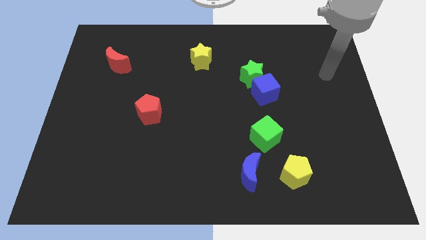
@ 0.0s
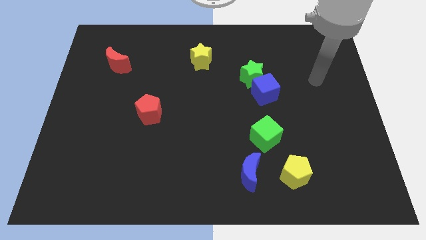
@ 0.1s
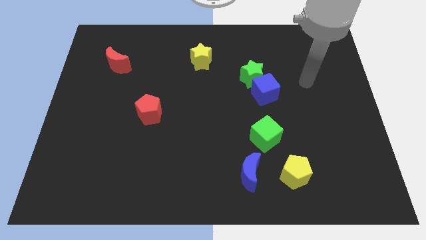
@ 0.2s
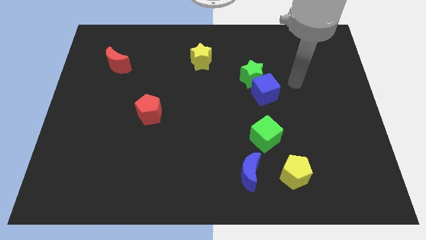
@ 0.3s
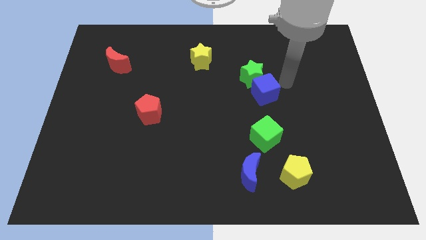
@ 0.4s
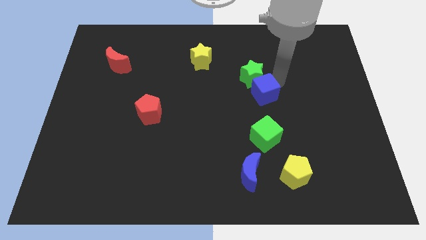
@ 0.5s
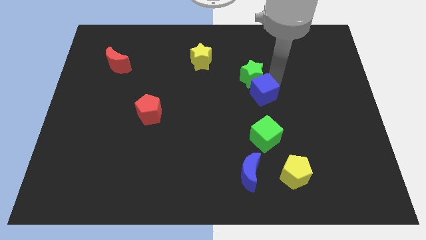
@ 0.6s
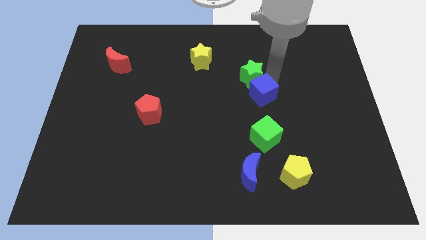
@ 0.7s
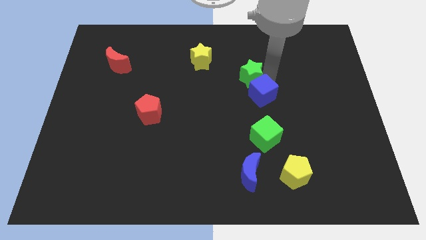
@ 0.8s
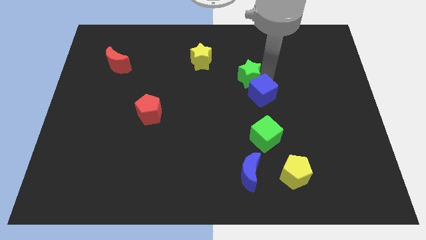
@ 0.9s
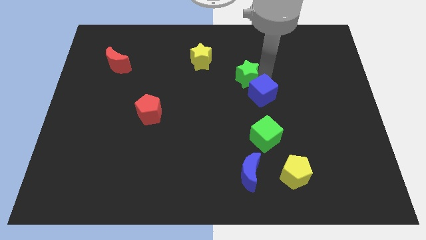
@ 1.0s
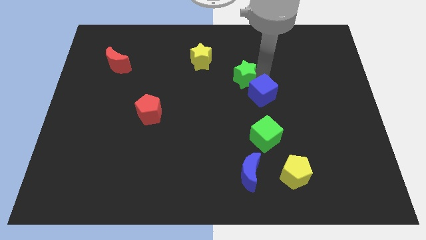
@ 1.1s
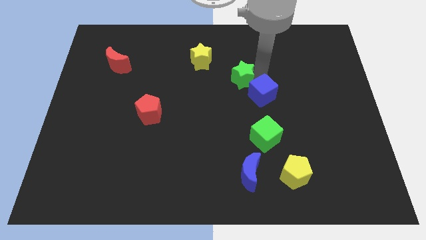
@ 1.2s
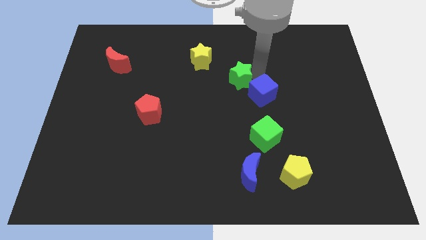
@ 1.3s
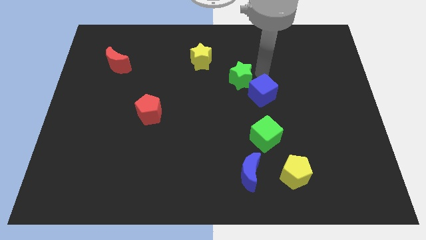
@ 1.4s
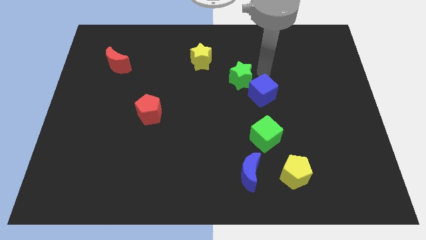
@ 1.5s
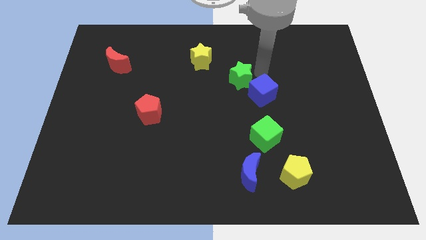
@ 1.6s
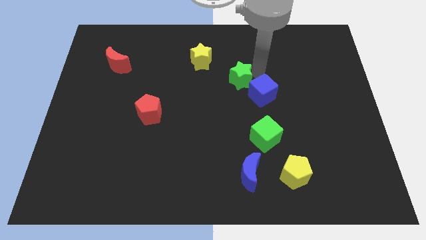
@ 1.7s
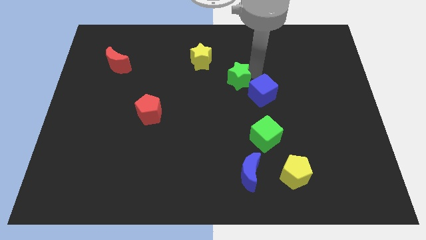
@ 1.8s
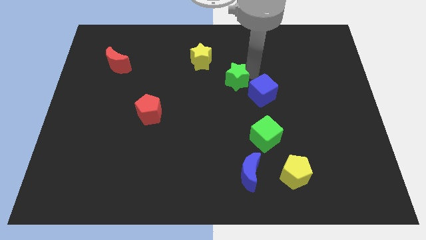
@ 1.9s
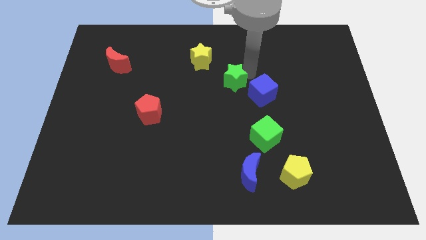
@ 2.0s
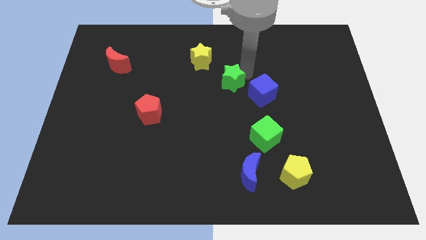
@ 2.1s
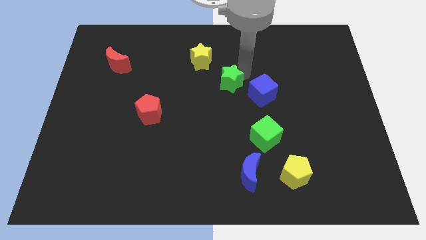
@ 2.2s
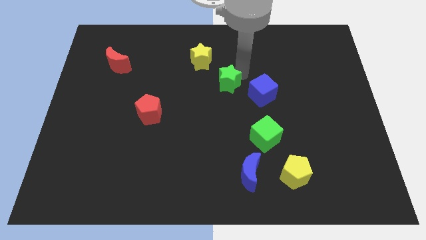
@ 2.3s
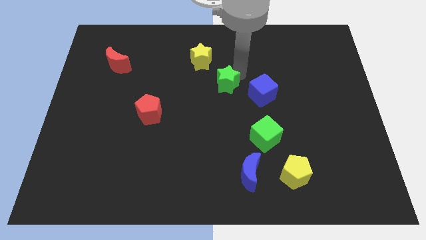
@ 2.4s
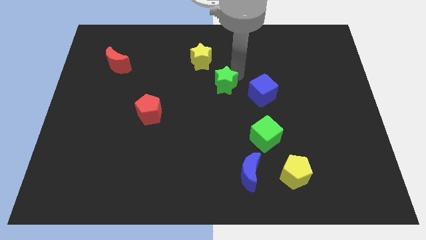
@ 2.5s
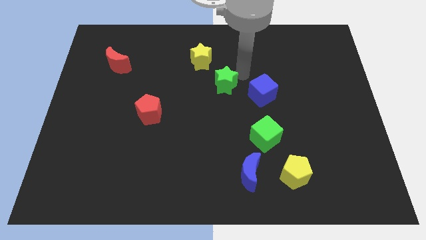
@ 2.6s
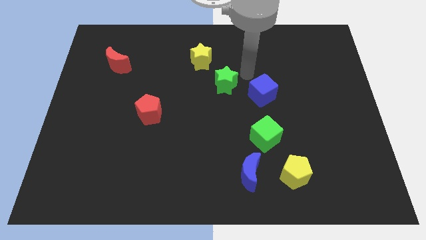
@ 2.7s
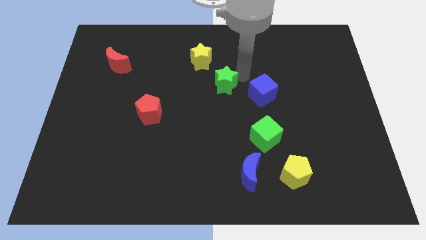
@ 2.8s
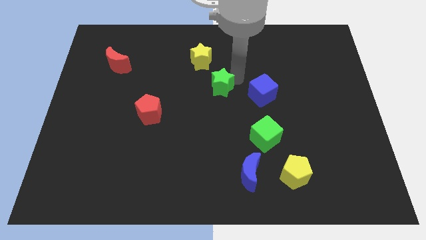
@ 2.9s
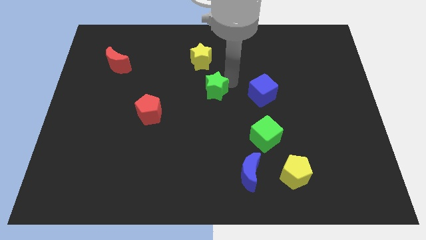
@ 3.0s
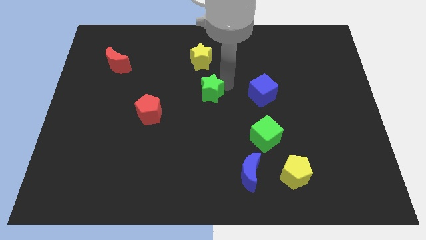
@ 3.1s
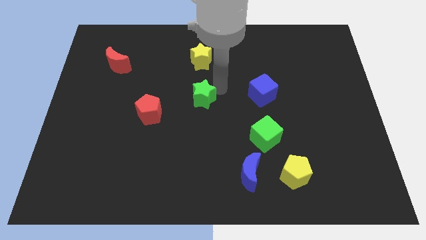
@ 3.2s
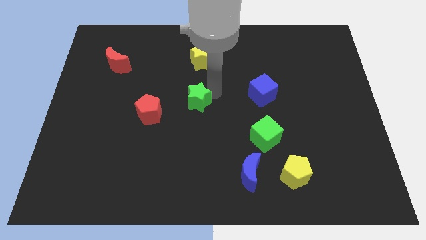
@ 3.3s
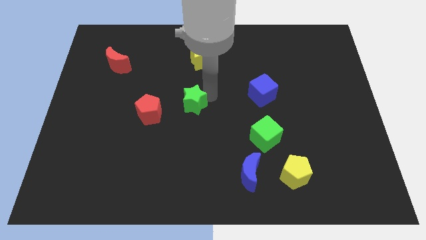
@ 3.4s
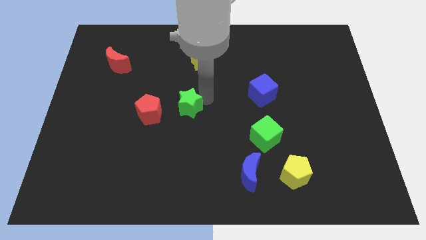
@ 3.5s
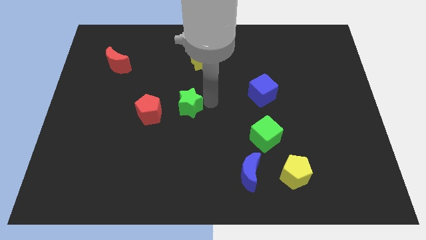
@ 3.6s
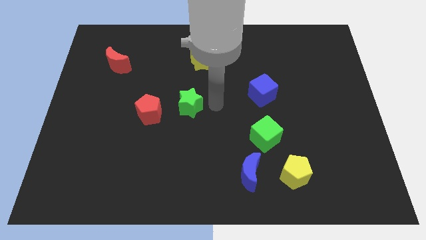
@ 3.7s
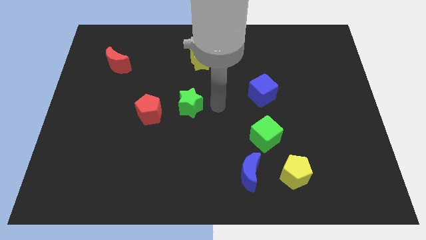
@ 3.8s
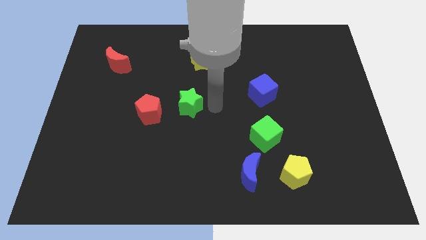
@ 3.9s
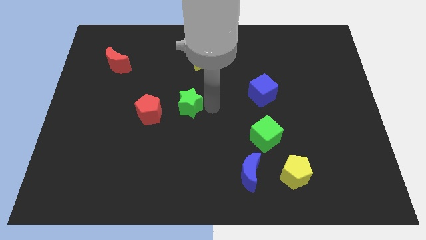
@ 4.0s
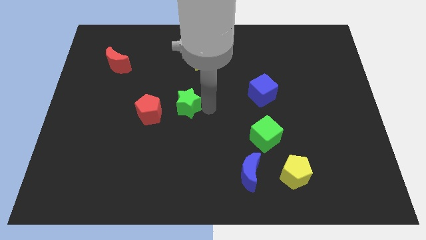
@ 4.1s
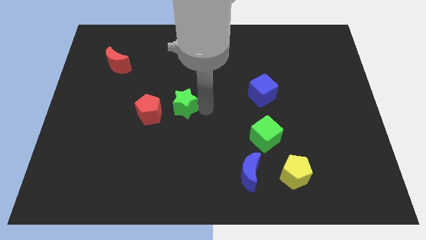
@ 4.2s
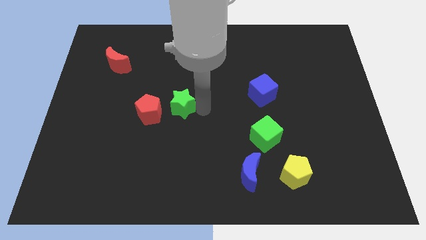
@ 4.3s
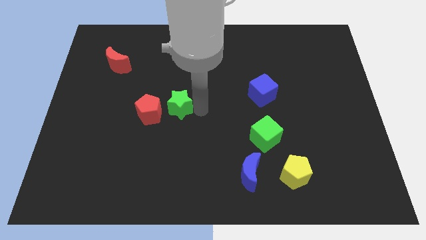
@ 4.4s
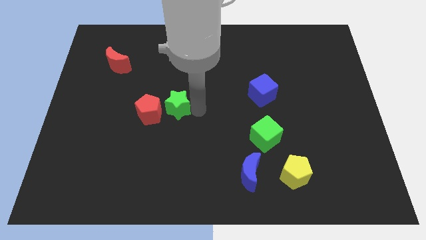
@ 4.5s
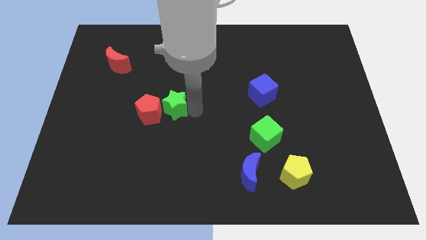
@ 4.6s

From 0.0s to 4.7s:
push the green star close to the red pentagon

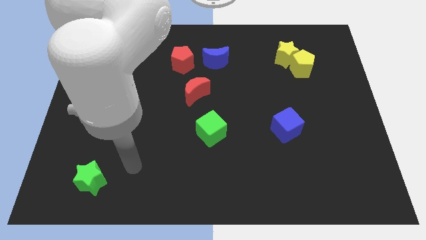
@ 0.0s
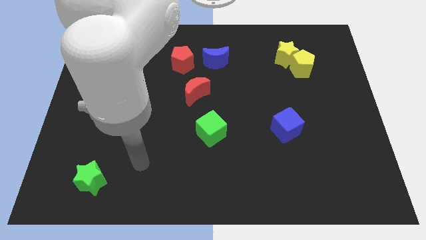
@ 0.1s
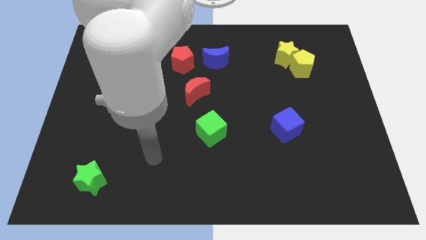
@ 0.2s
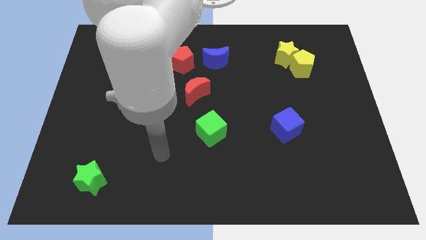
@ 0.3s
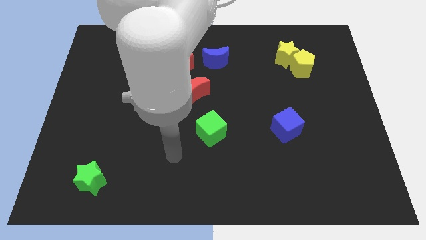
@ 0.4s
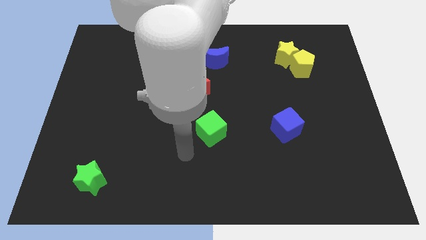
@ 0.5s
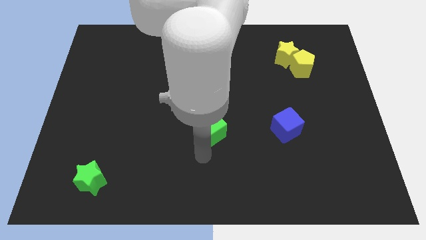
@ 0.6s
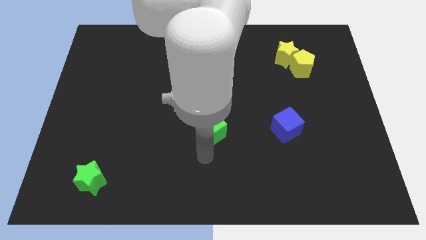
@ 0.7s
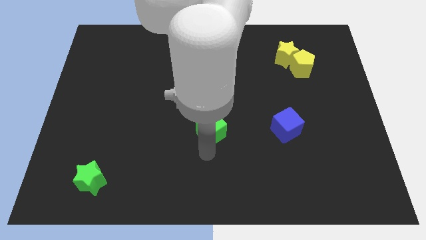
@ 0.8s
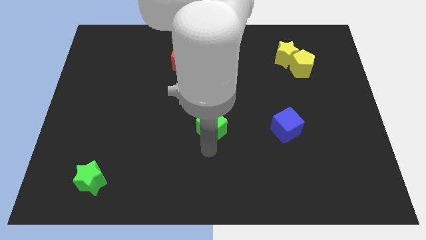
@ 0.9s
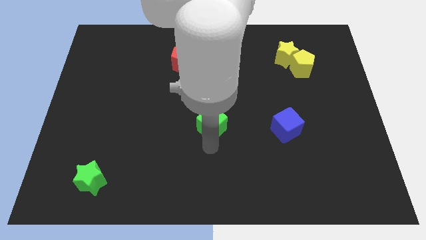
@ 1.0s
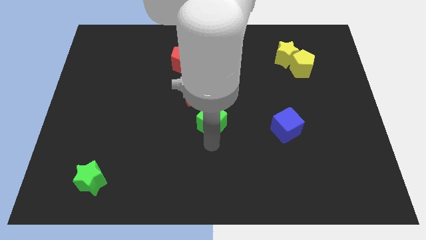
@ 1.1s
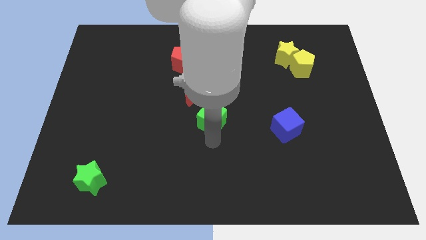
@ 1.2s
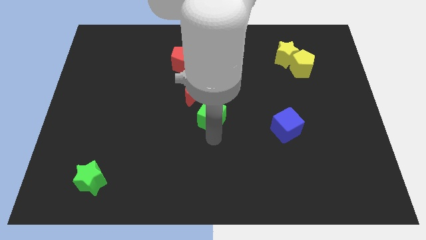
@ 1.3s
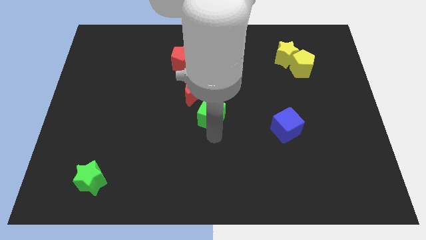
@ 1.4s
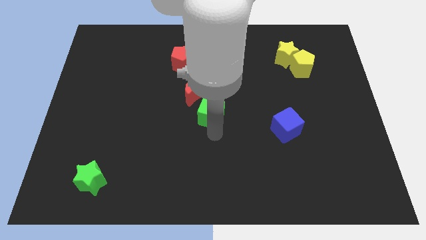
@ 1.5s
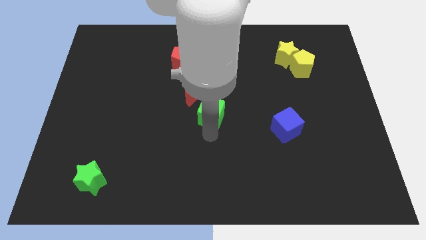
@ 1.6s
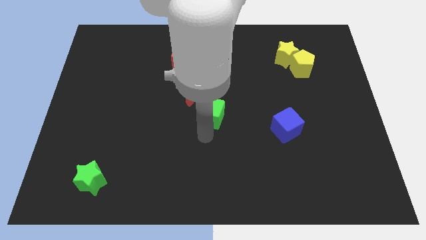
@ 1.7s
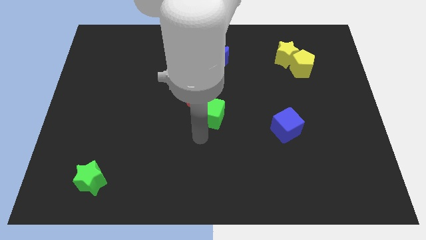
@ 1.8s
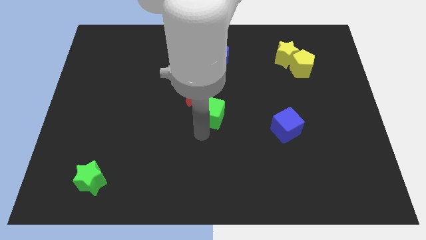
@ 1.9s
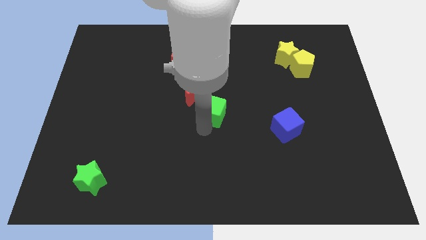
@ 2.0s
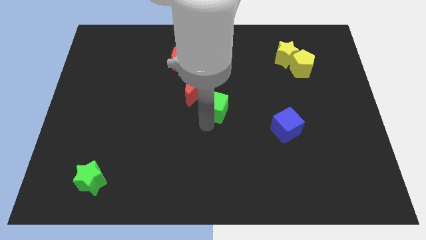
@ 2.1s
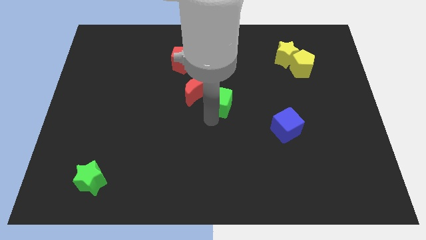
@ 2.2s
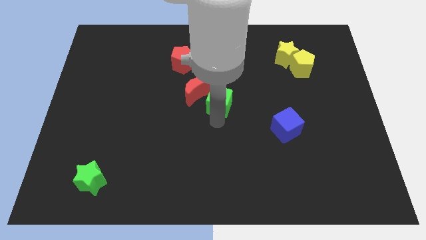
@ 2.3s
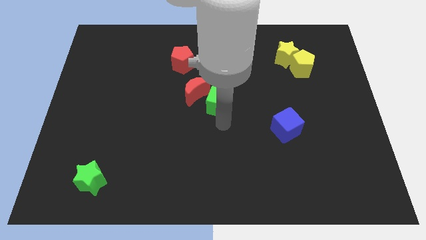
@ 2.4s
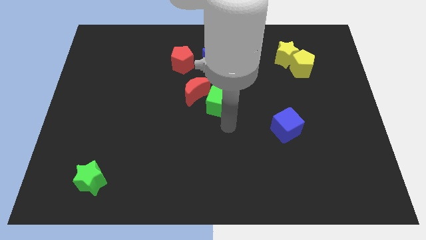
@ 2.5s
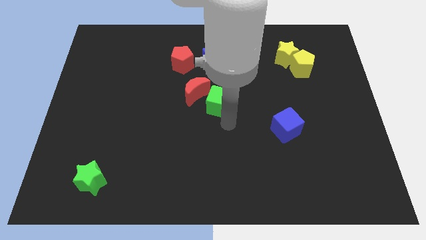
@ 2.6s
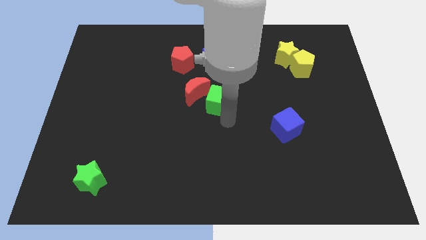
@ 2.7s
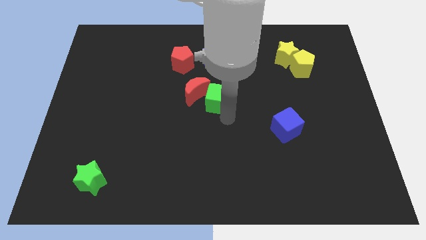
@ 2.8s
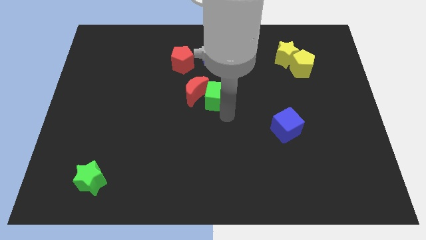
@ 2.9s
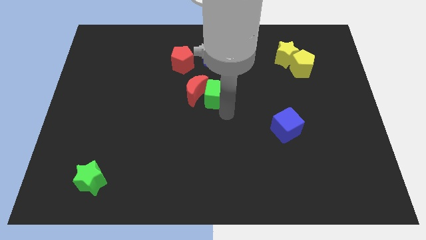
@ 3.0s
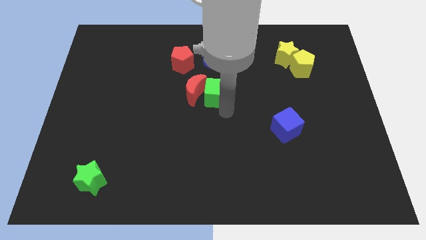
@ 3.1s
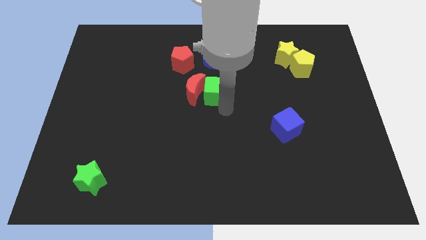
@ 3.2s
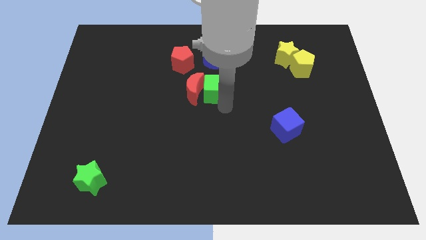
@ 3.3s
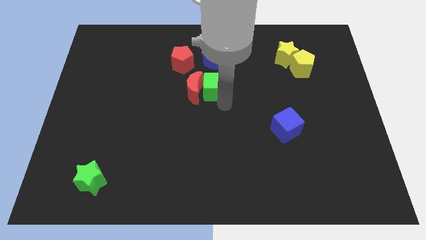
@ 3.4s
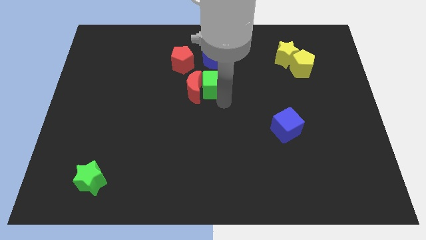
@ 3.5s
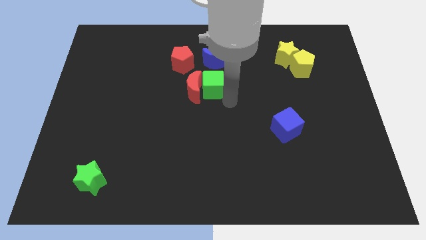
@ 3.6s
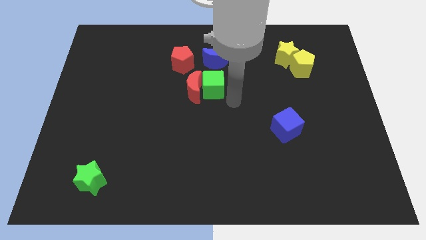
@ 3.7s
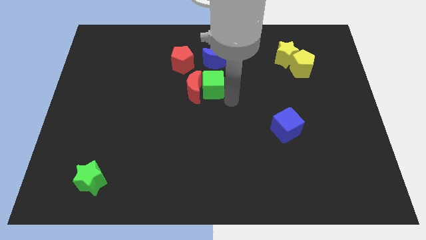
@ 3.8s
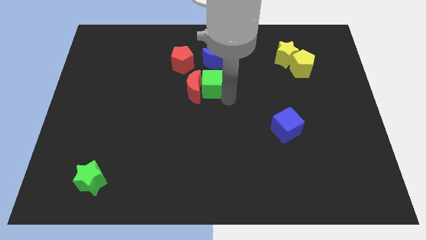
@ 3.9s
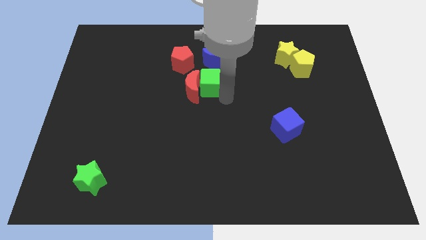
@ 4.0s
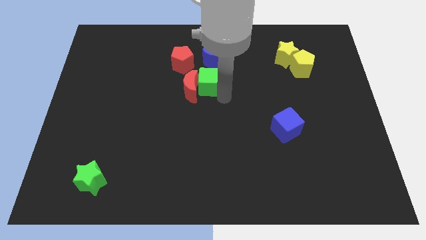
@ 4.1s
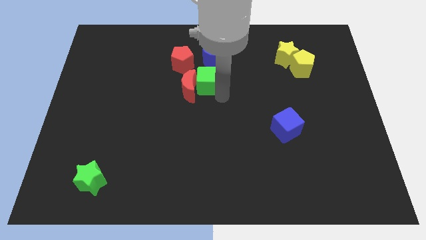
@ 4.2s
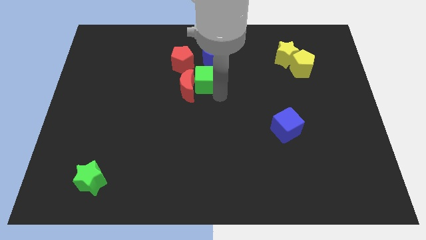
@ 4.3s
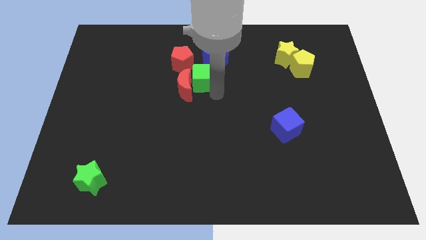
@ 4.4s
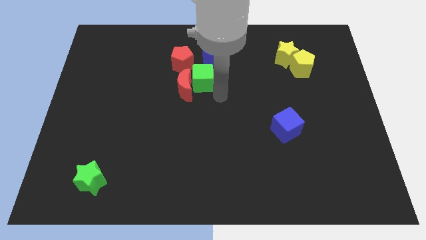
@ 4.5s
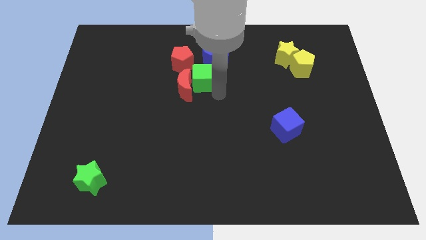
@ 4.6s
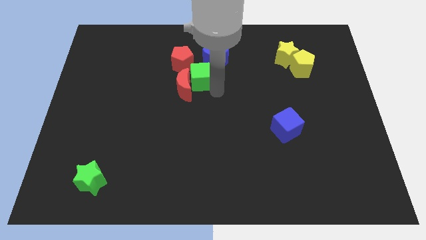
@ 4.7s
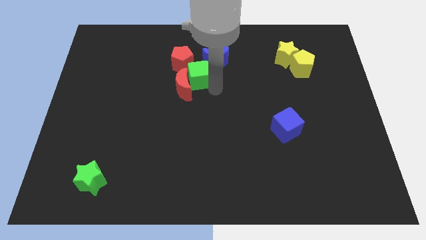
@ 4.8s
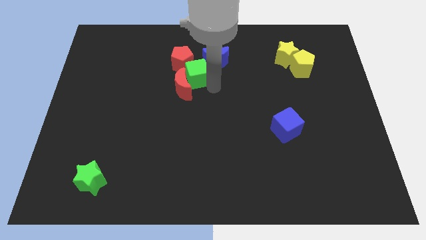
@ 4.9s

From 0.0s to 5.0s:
slide the green cube to the red pentagon
